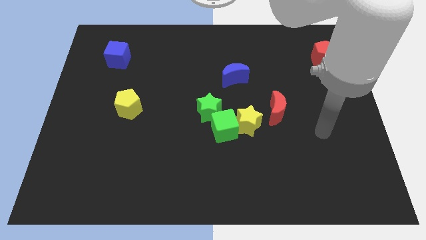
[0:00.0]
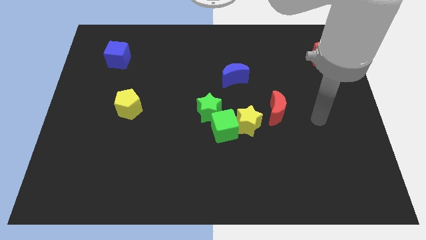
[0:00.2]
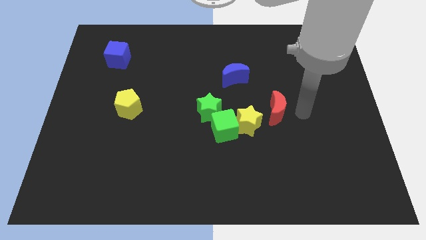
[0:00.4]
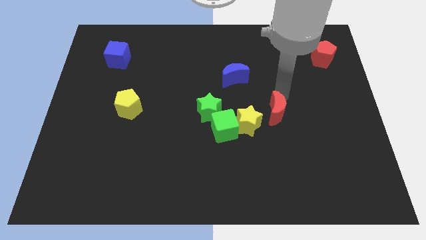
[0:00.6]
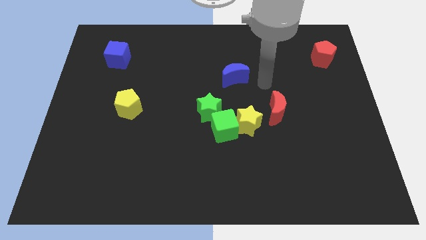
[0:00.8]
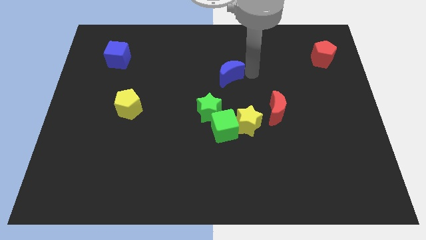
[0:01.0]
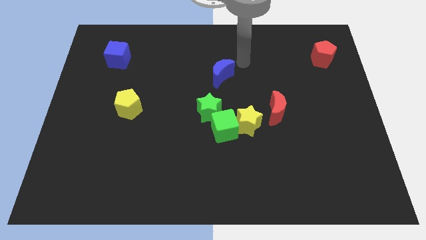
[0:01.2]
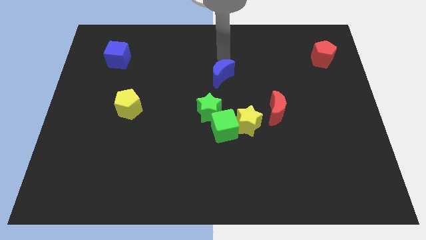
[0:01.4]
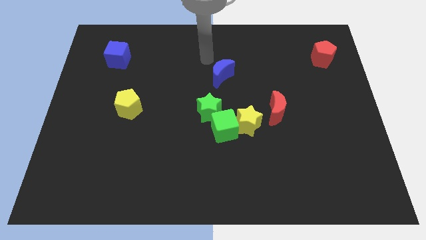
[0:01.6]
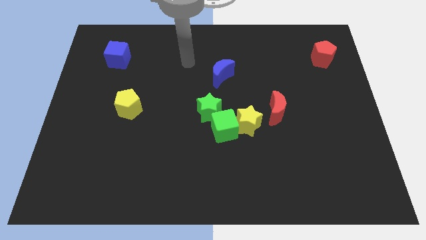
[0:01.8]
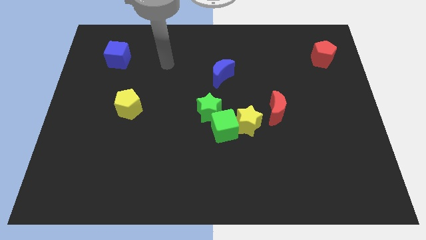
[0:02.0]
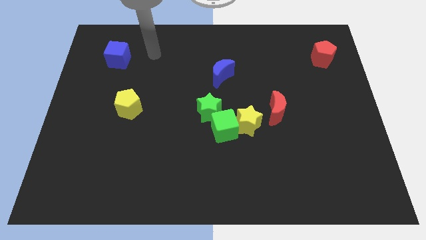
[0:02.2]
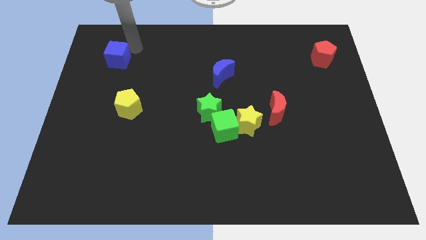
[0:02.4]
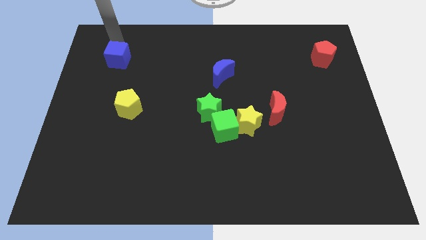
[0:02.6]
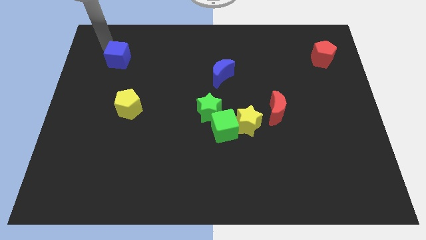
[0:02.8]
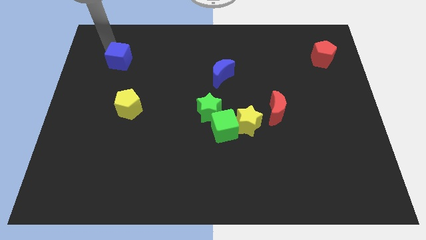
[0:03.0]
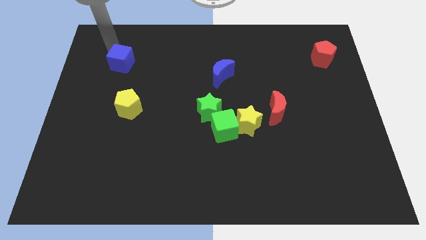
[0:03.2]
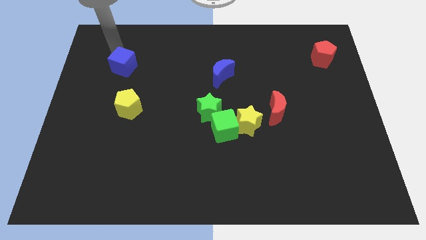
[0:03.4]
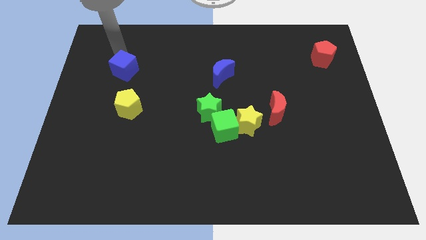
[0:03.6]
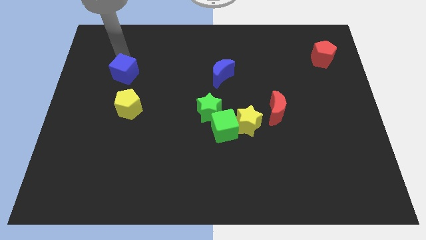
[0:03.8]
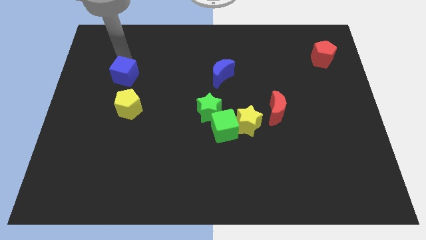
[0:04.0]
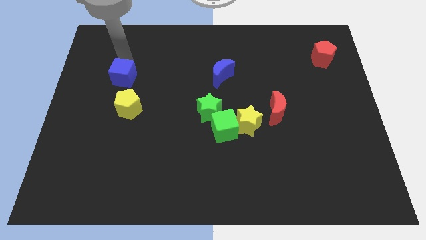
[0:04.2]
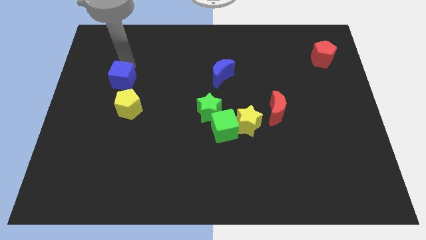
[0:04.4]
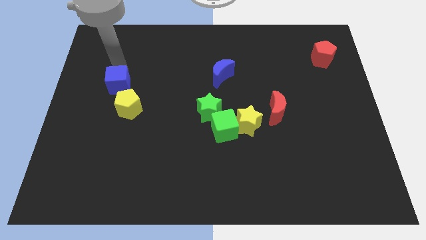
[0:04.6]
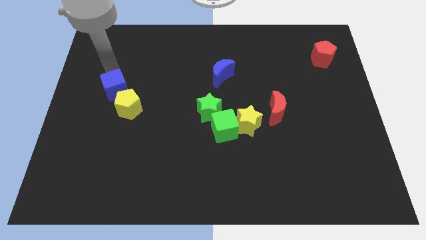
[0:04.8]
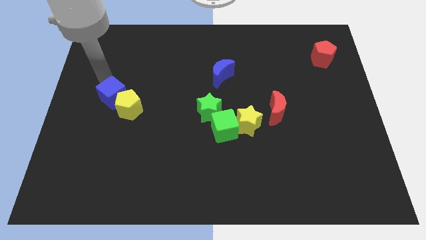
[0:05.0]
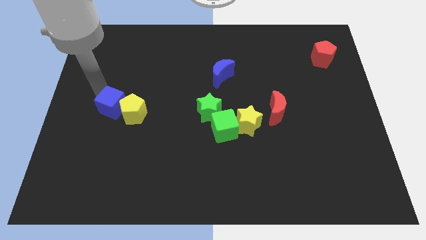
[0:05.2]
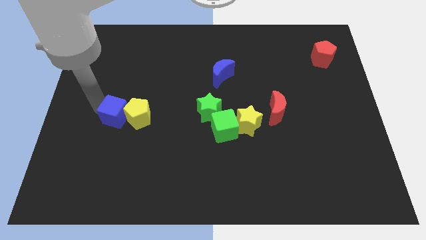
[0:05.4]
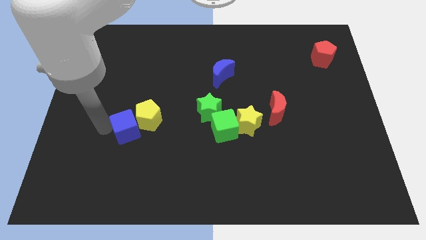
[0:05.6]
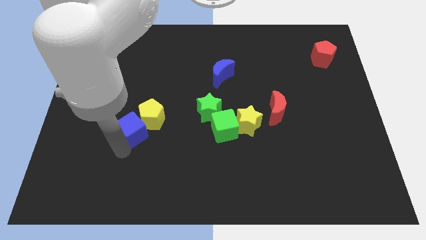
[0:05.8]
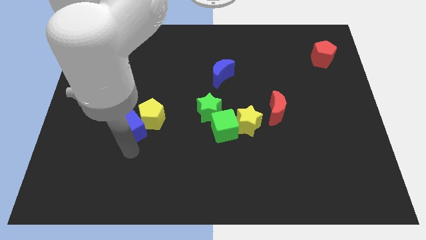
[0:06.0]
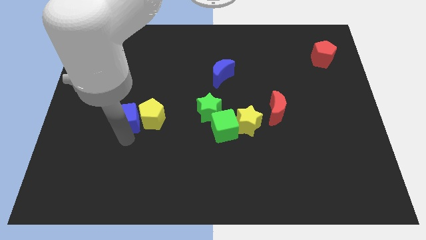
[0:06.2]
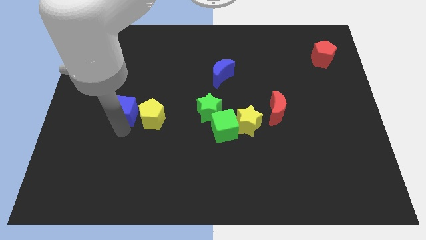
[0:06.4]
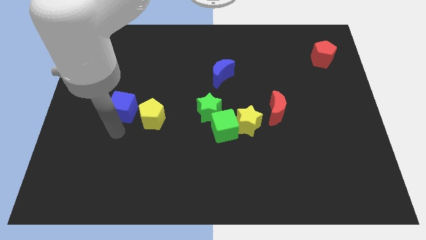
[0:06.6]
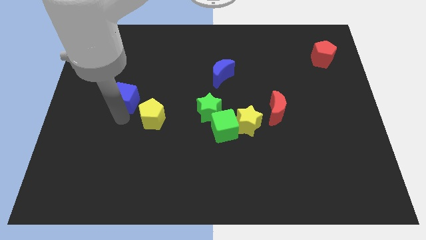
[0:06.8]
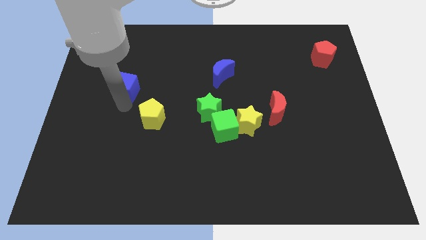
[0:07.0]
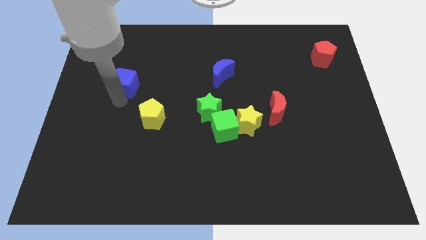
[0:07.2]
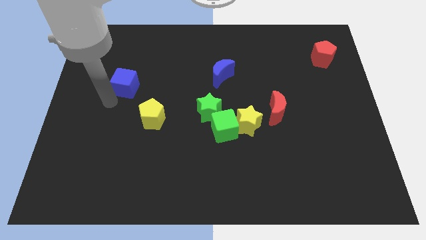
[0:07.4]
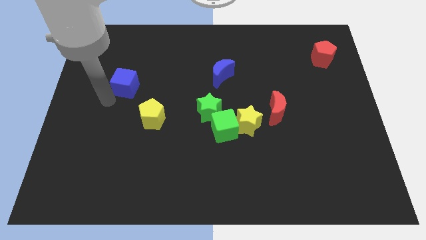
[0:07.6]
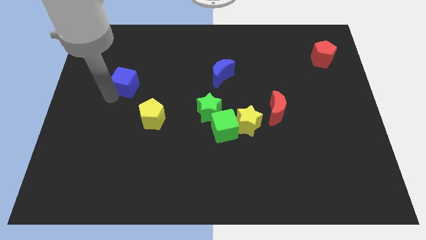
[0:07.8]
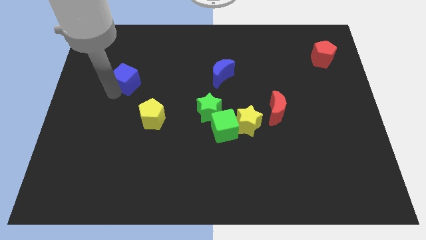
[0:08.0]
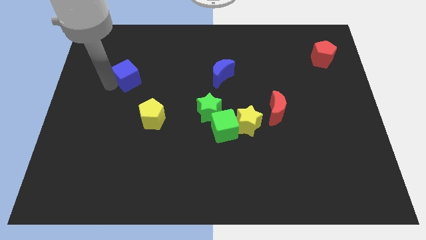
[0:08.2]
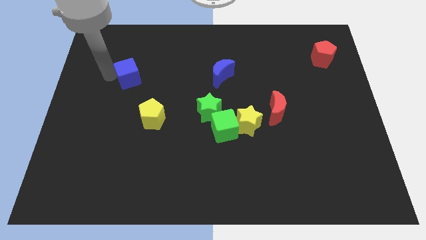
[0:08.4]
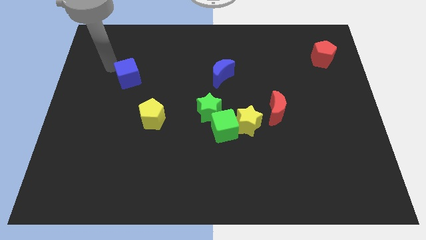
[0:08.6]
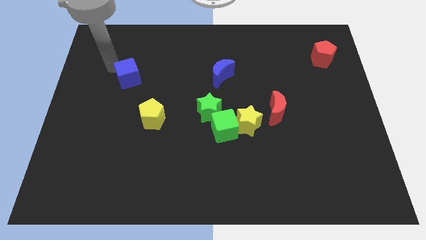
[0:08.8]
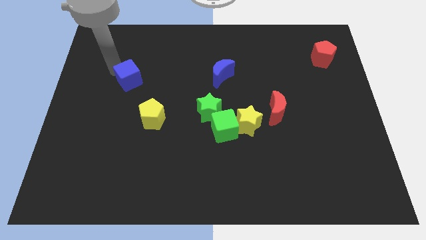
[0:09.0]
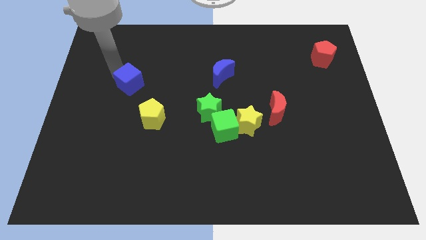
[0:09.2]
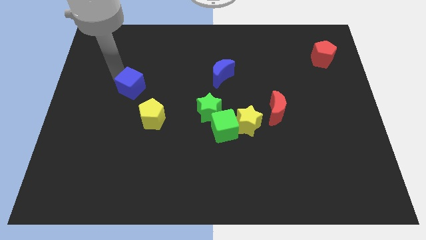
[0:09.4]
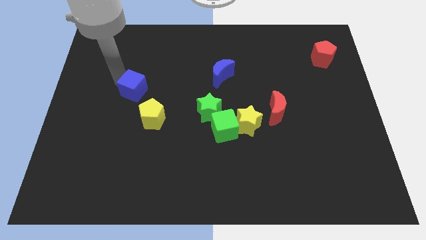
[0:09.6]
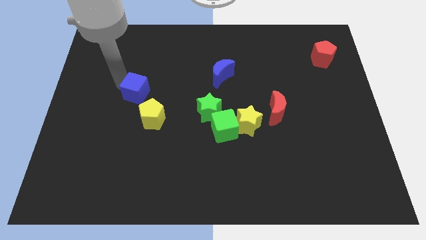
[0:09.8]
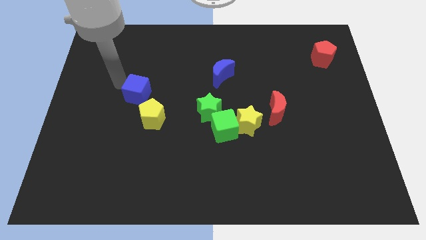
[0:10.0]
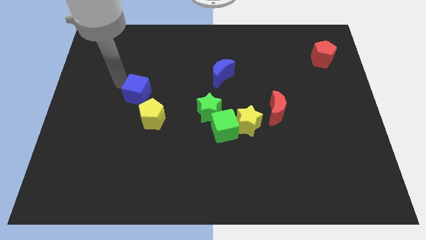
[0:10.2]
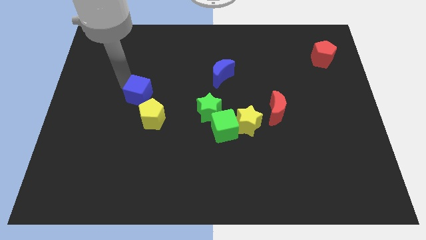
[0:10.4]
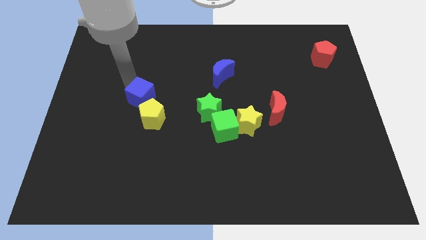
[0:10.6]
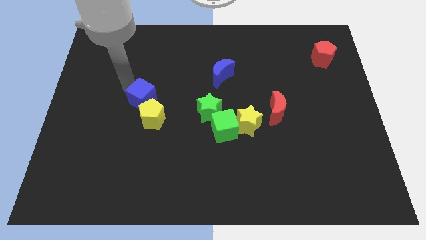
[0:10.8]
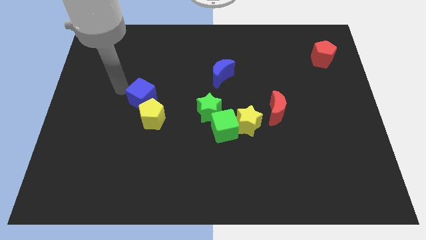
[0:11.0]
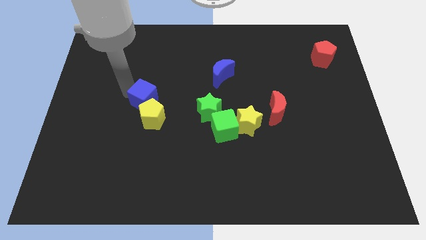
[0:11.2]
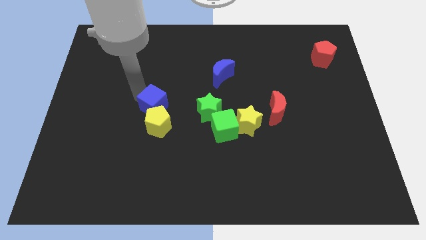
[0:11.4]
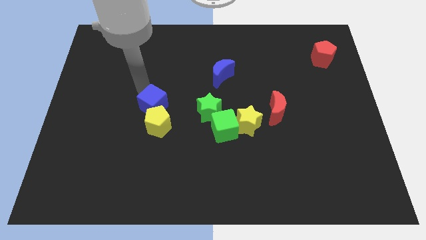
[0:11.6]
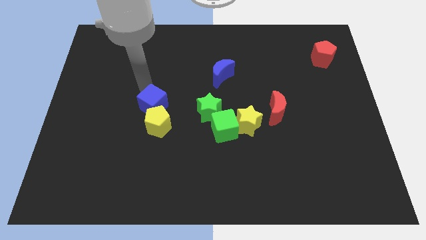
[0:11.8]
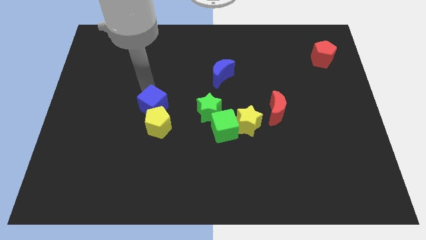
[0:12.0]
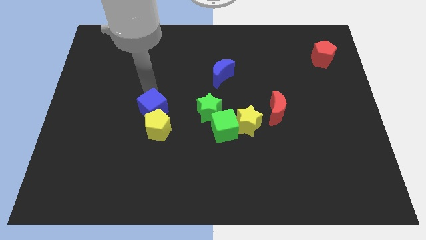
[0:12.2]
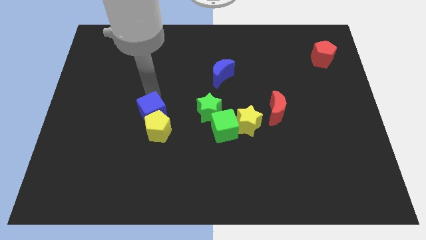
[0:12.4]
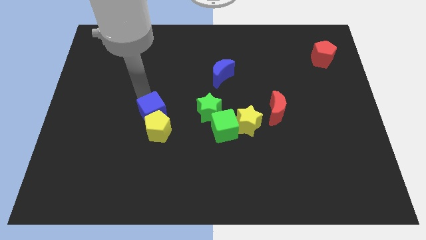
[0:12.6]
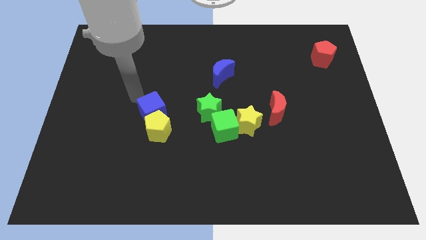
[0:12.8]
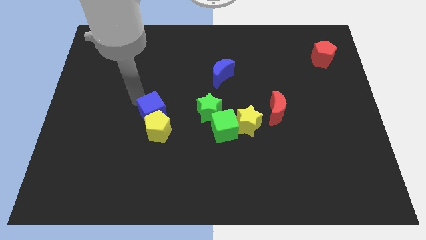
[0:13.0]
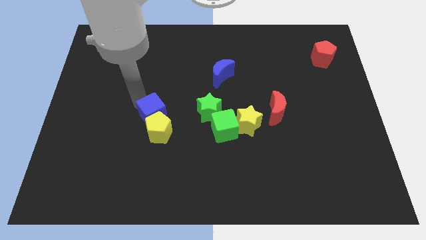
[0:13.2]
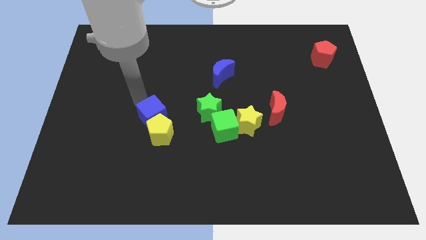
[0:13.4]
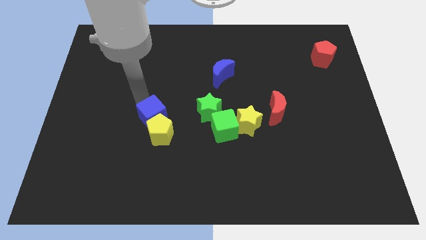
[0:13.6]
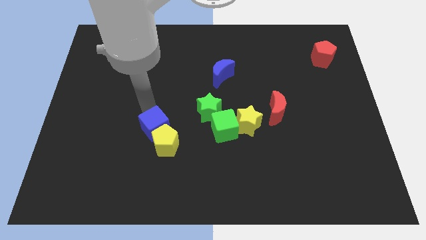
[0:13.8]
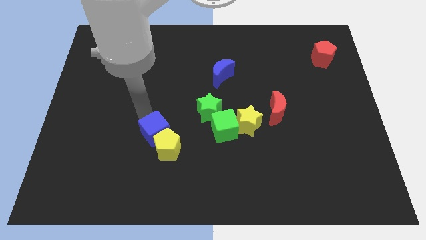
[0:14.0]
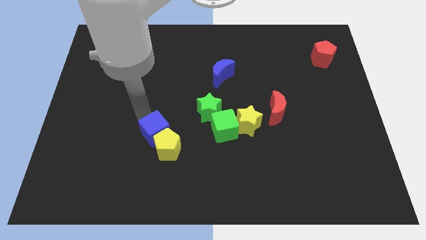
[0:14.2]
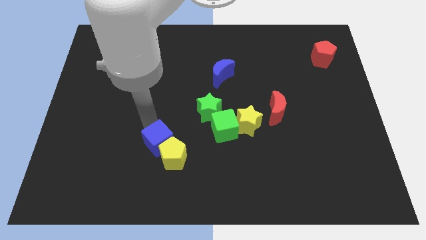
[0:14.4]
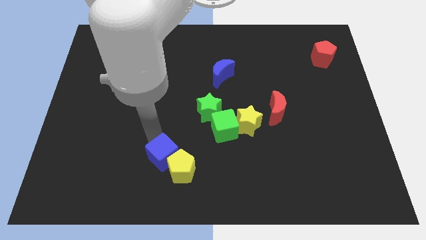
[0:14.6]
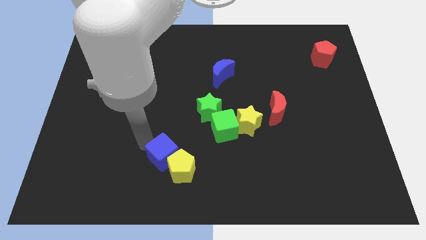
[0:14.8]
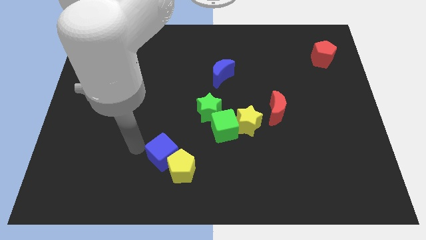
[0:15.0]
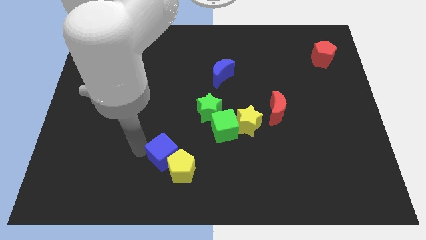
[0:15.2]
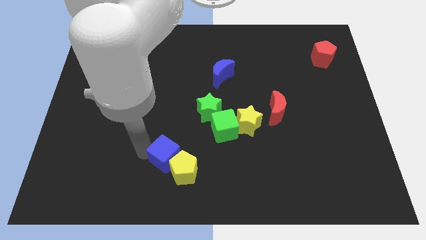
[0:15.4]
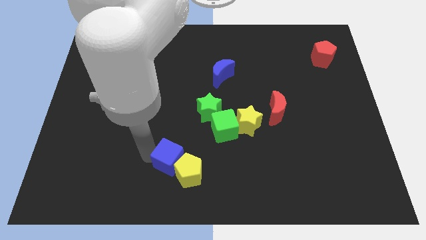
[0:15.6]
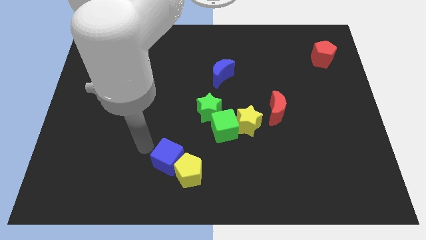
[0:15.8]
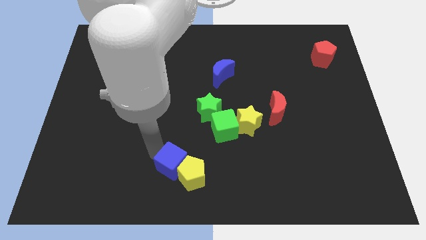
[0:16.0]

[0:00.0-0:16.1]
put the blue cube to the bottom
